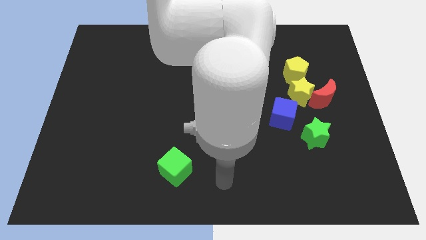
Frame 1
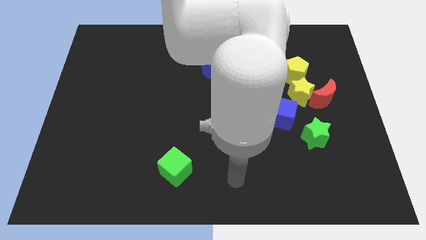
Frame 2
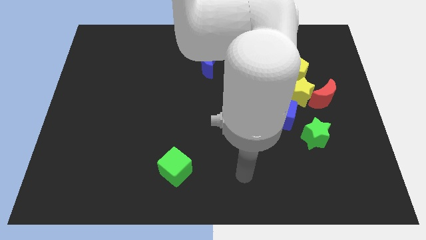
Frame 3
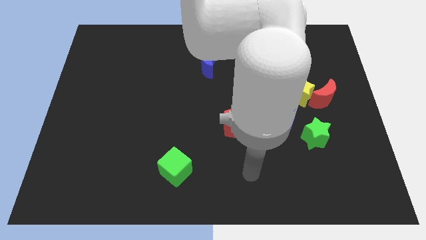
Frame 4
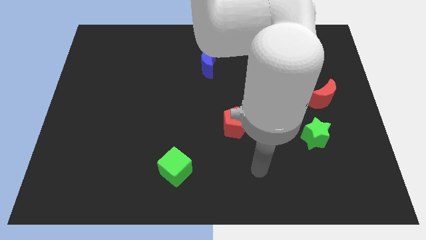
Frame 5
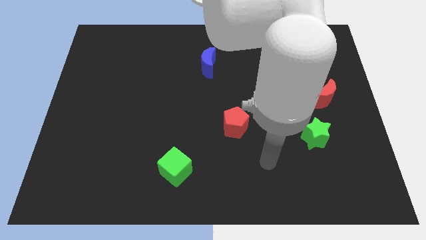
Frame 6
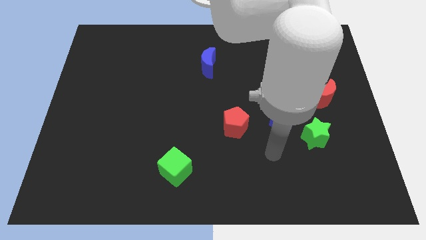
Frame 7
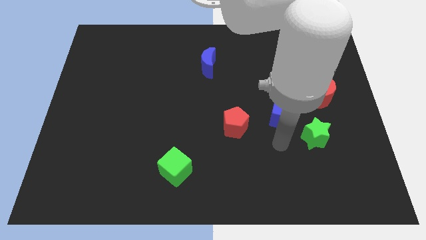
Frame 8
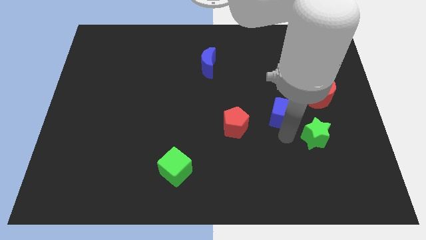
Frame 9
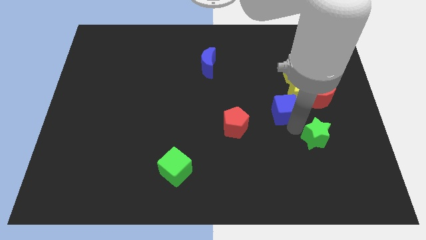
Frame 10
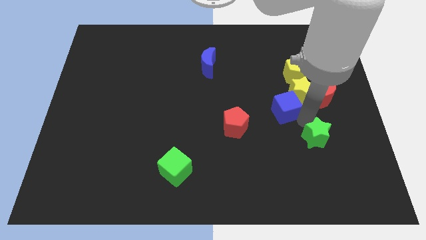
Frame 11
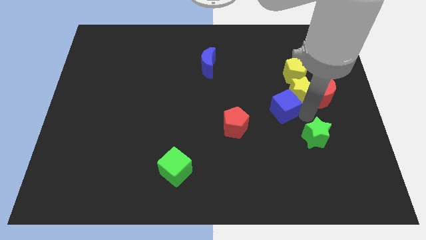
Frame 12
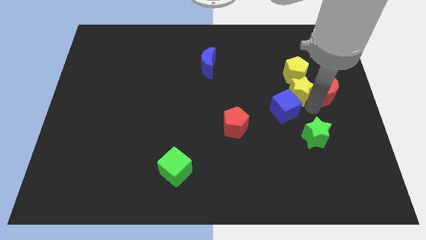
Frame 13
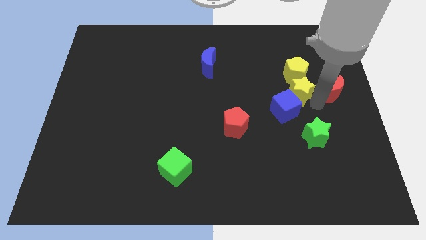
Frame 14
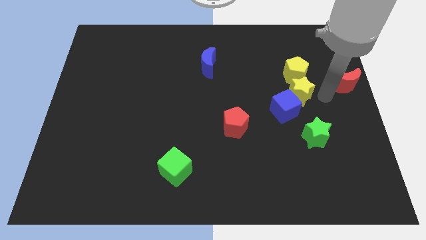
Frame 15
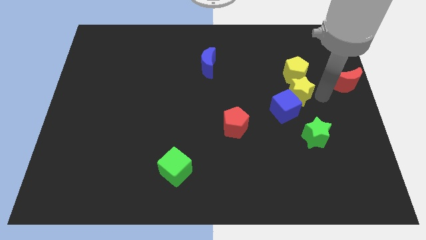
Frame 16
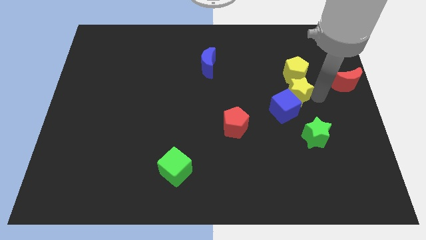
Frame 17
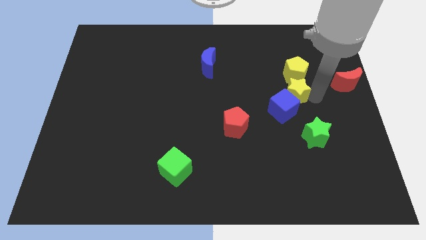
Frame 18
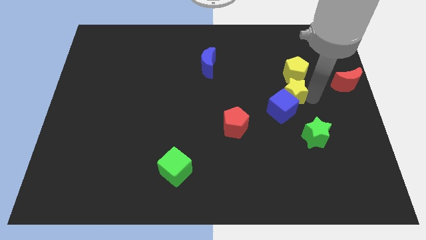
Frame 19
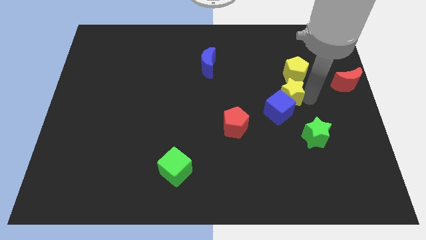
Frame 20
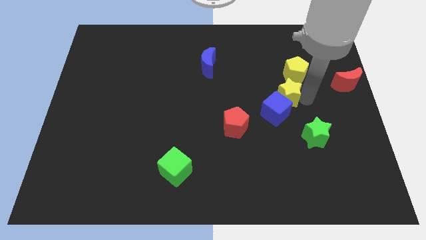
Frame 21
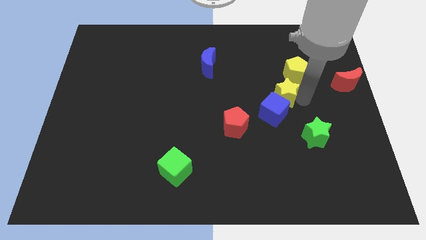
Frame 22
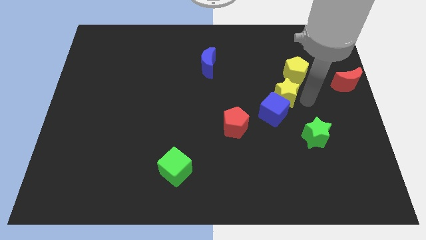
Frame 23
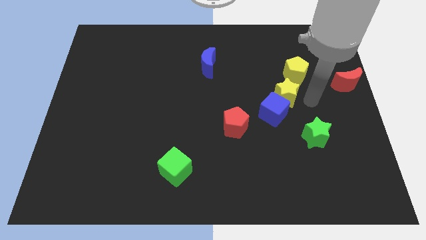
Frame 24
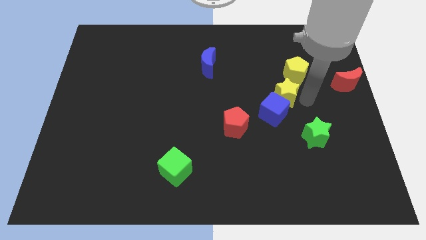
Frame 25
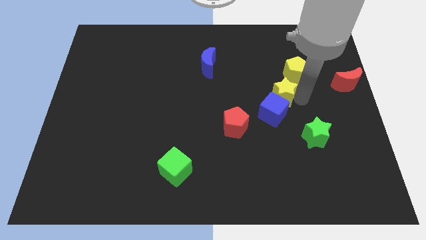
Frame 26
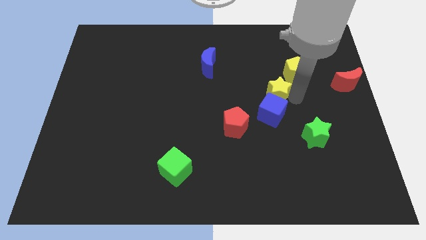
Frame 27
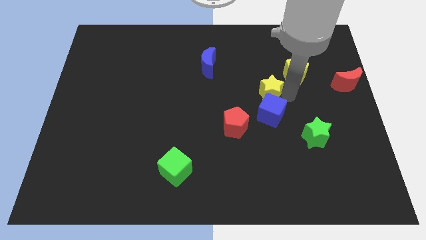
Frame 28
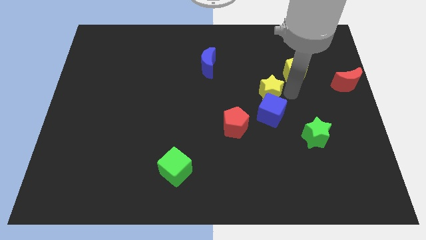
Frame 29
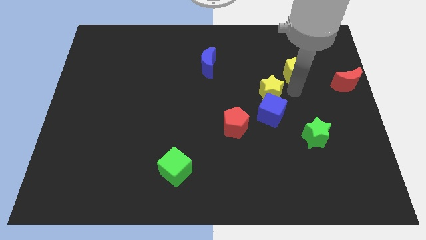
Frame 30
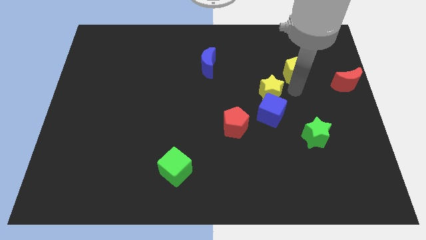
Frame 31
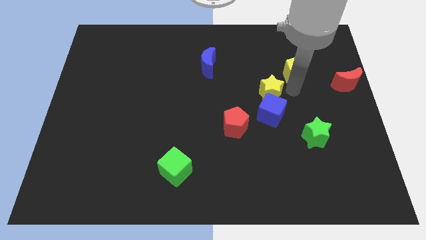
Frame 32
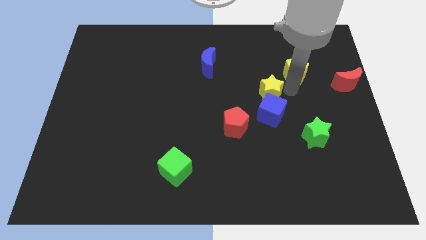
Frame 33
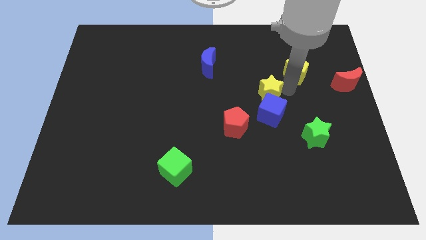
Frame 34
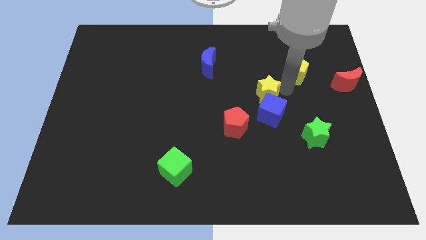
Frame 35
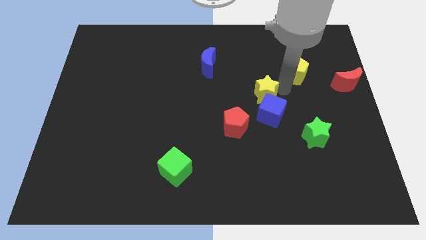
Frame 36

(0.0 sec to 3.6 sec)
pull the yellow star apart from the group of blocks

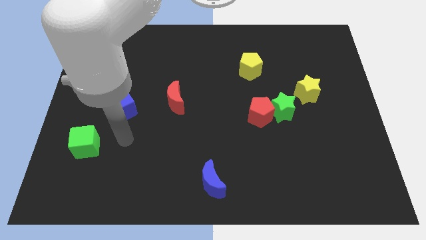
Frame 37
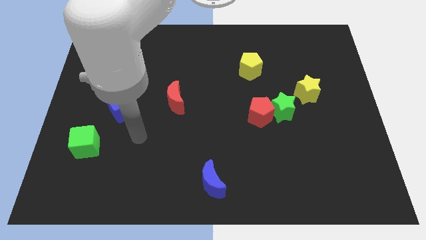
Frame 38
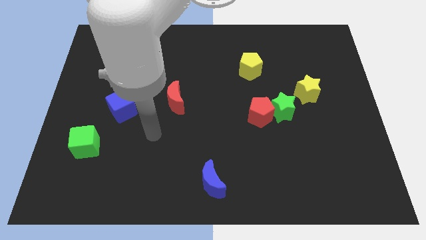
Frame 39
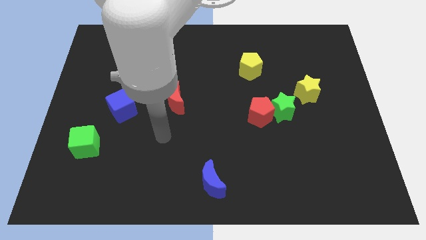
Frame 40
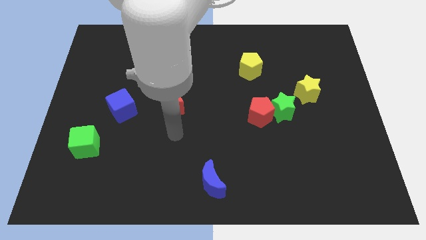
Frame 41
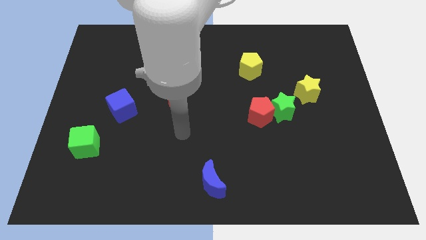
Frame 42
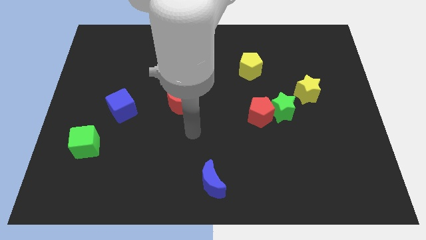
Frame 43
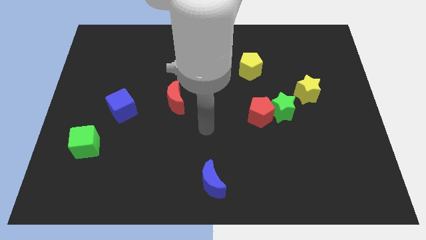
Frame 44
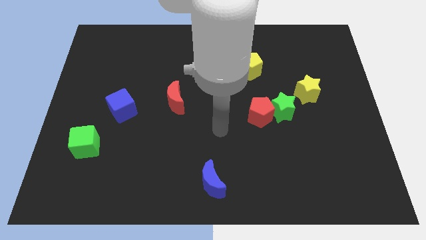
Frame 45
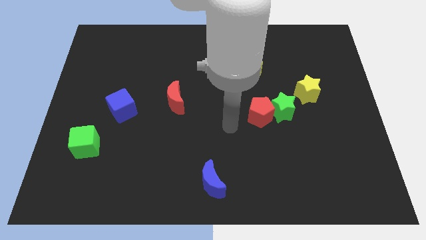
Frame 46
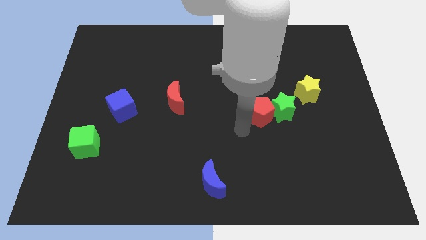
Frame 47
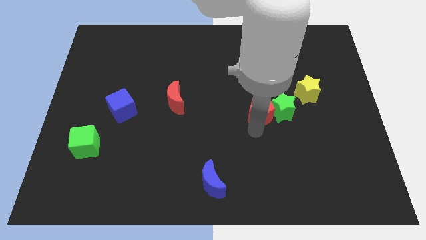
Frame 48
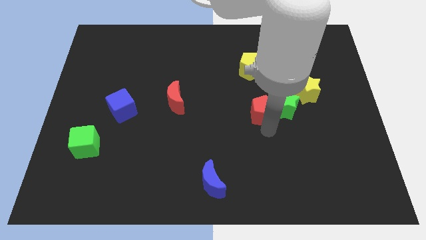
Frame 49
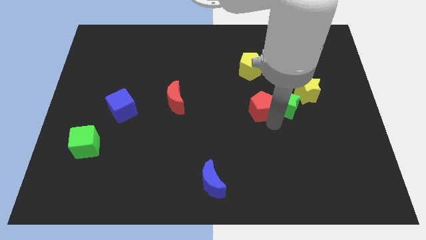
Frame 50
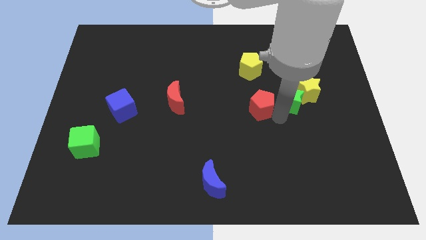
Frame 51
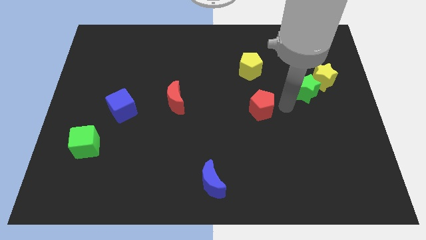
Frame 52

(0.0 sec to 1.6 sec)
separate the red pentagon from the green star

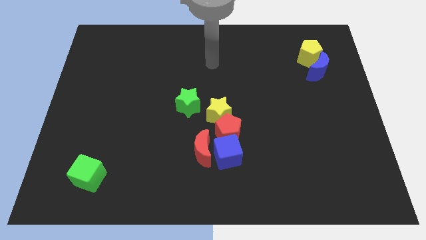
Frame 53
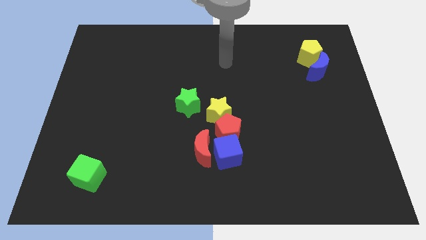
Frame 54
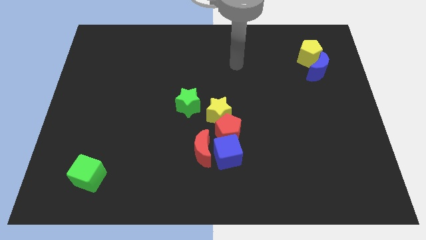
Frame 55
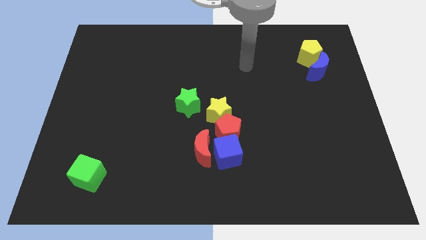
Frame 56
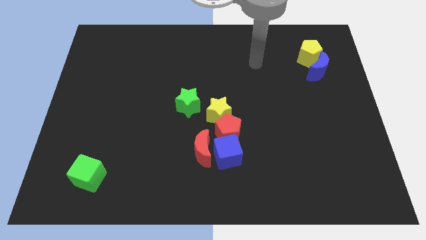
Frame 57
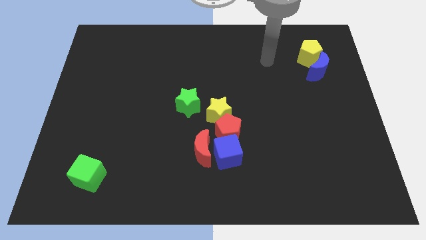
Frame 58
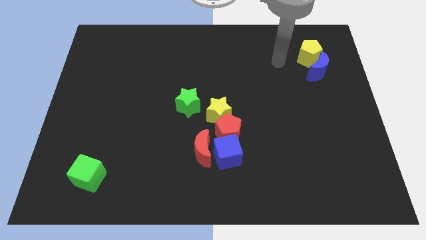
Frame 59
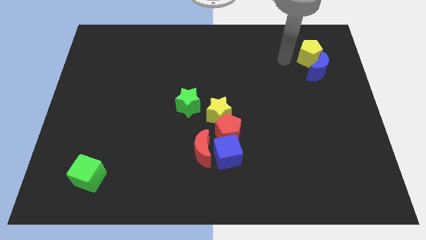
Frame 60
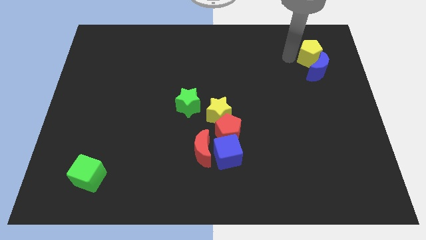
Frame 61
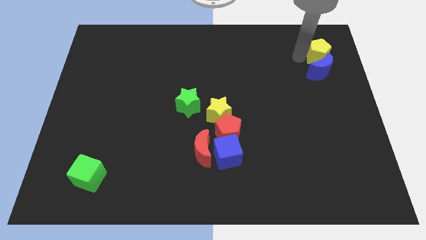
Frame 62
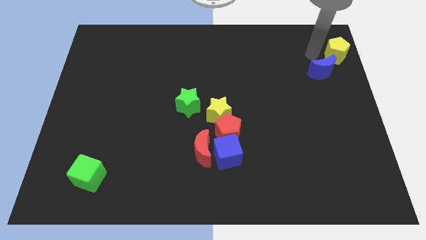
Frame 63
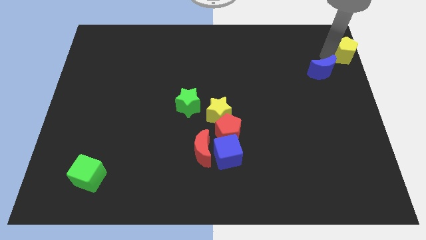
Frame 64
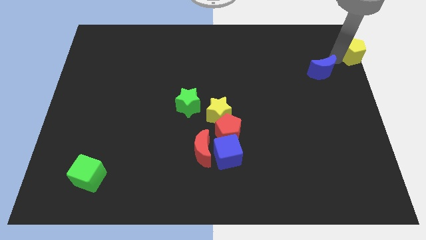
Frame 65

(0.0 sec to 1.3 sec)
separate the blue moon from the yellow pentagon

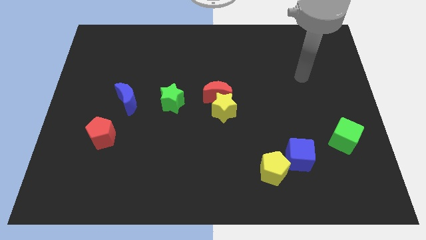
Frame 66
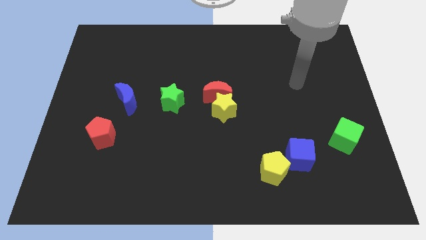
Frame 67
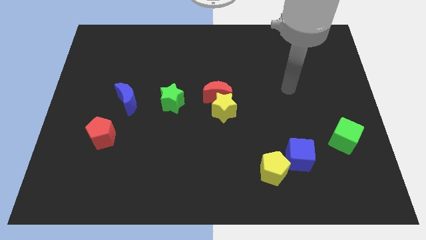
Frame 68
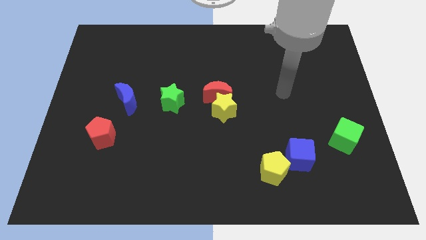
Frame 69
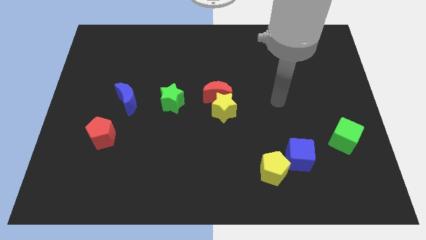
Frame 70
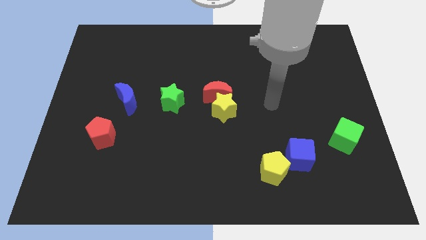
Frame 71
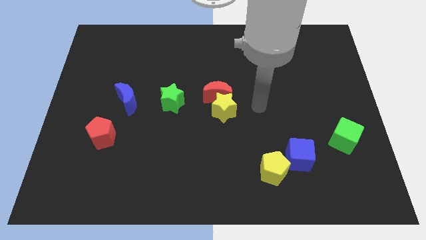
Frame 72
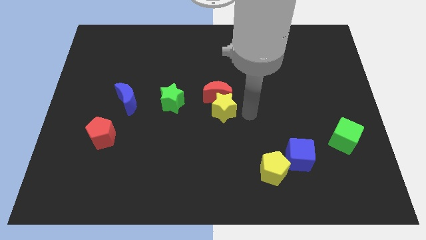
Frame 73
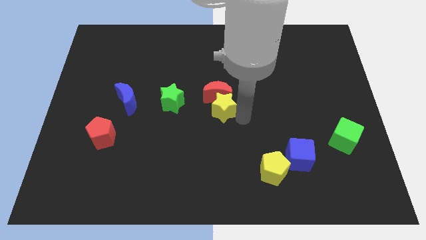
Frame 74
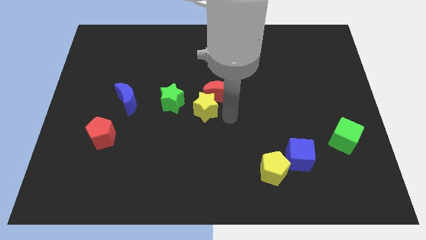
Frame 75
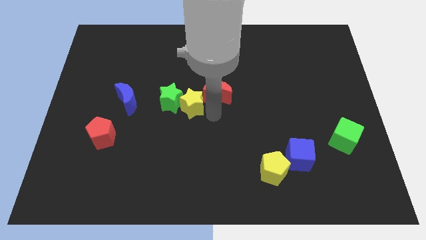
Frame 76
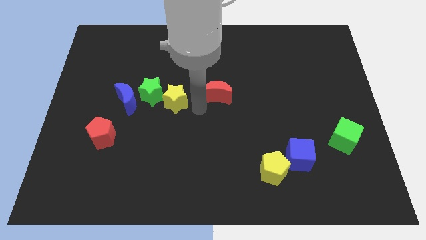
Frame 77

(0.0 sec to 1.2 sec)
move the red moon away from the yellow star

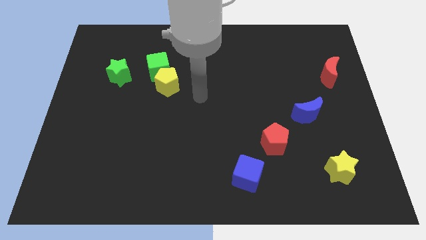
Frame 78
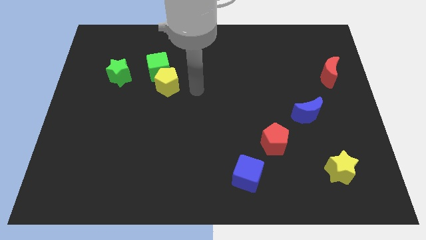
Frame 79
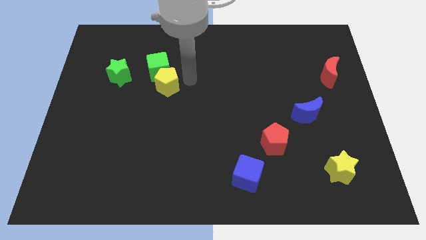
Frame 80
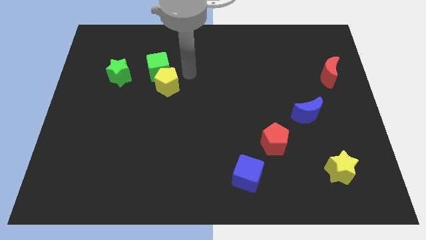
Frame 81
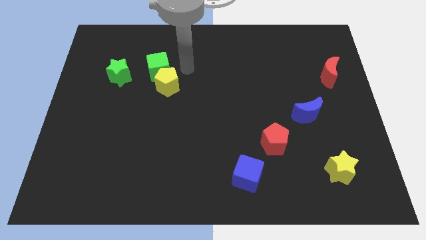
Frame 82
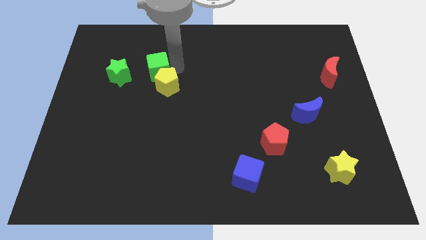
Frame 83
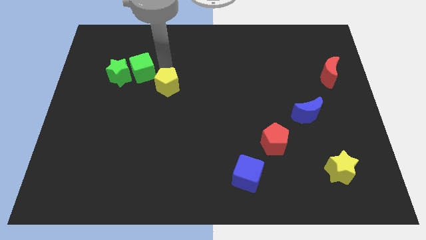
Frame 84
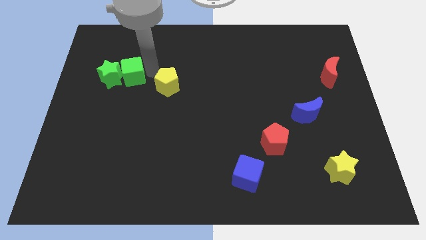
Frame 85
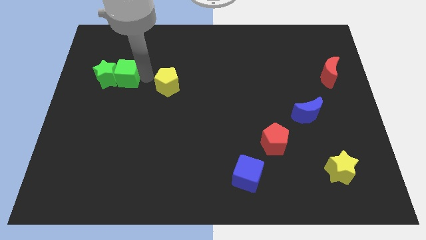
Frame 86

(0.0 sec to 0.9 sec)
separate the yellow pentagon from the green cube

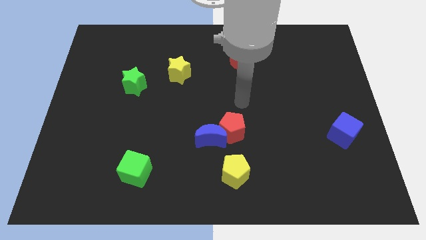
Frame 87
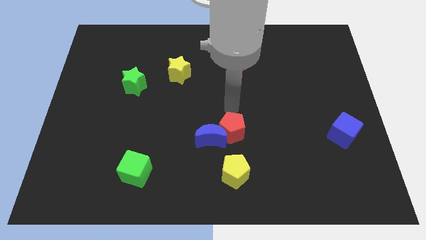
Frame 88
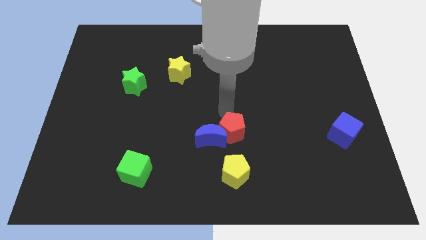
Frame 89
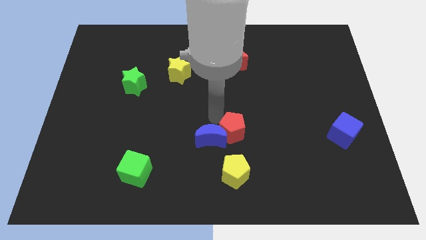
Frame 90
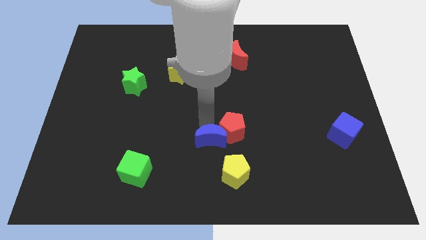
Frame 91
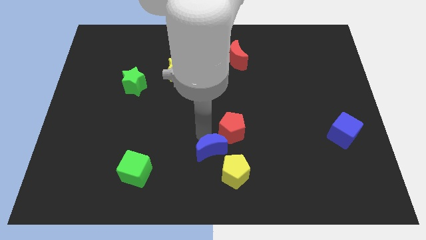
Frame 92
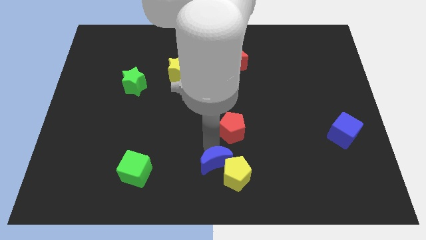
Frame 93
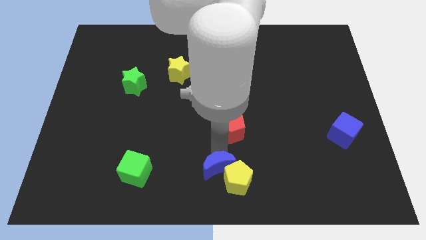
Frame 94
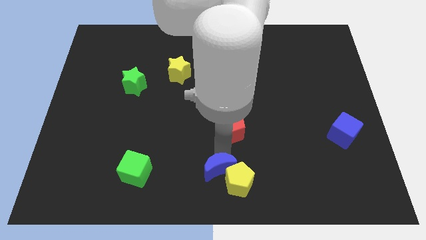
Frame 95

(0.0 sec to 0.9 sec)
pull the red pentagon apart from the blue moon
